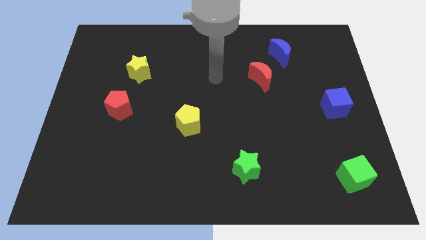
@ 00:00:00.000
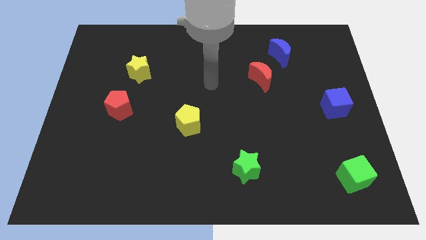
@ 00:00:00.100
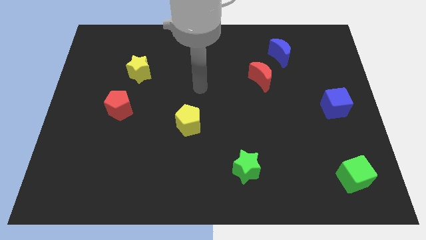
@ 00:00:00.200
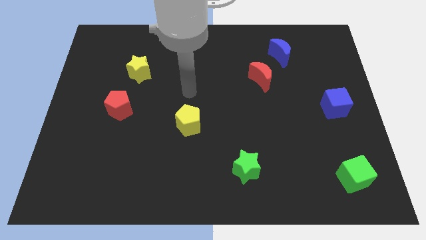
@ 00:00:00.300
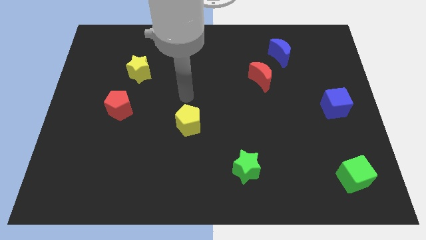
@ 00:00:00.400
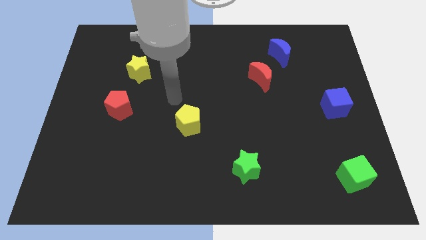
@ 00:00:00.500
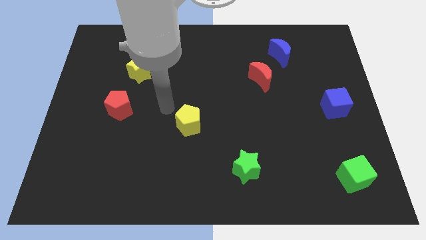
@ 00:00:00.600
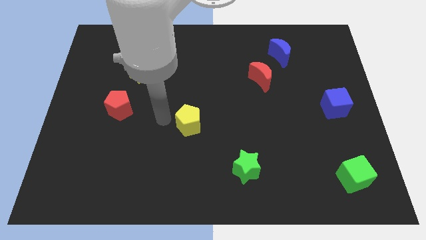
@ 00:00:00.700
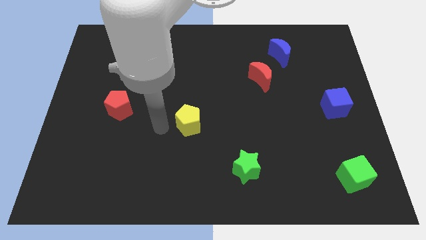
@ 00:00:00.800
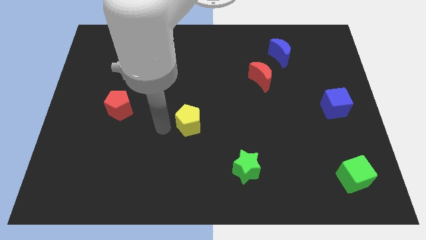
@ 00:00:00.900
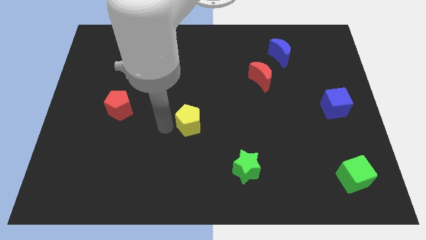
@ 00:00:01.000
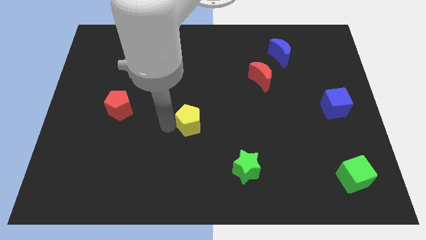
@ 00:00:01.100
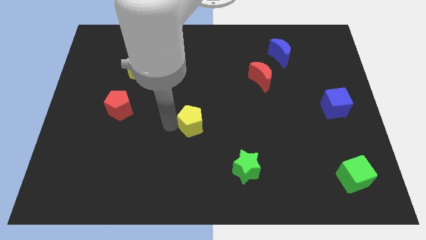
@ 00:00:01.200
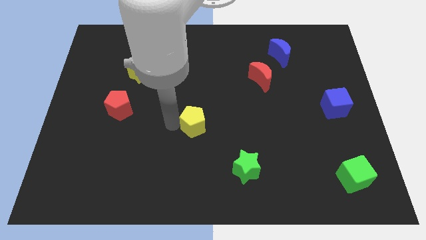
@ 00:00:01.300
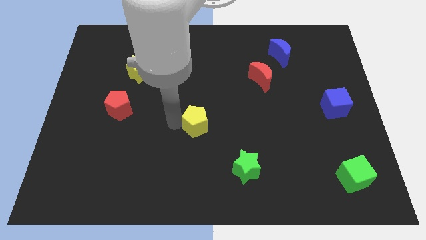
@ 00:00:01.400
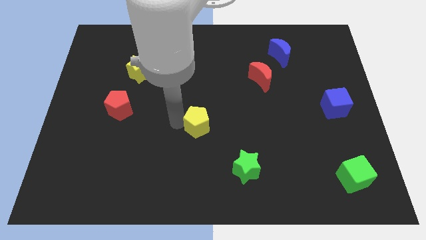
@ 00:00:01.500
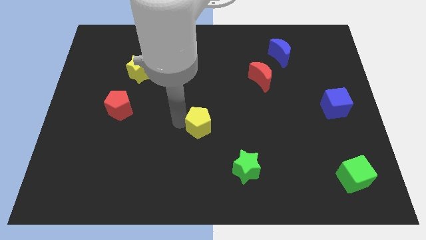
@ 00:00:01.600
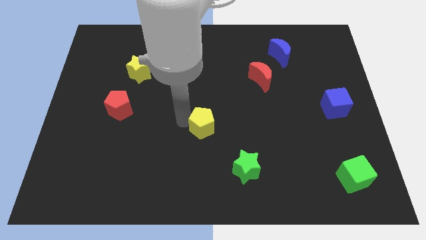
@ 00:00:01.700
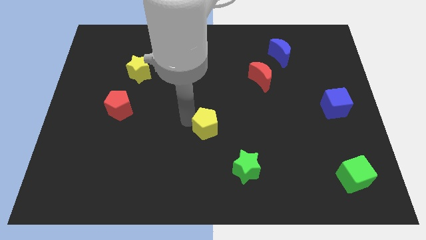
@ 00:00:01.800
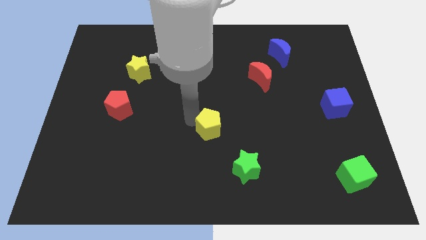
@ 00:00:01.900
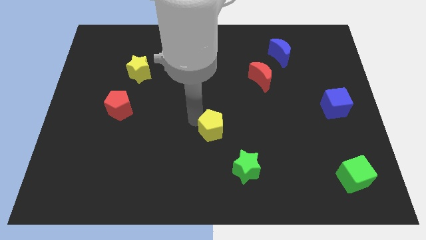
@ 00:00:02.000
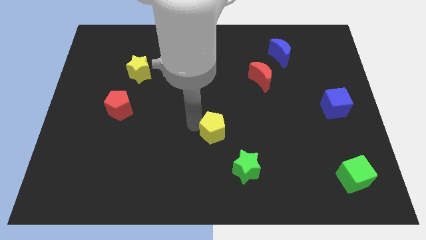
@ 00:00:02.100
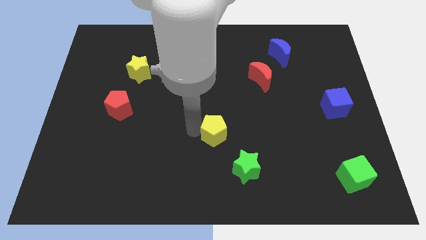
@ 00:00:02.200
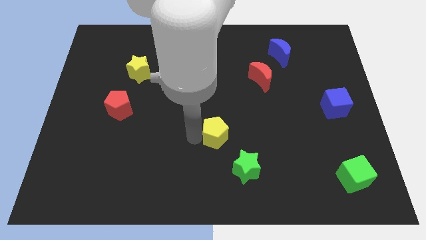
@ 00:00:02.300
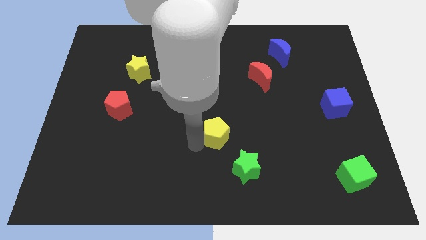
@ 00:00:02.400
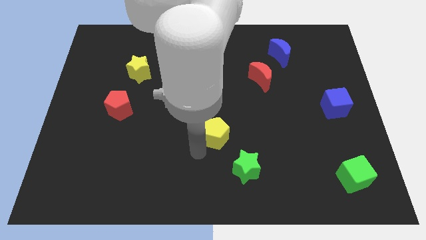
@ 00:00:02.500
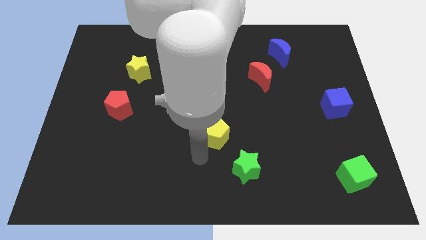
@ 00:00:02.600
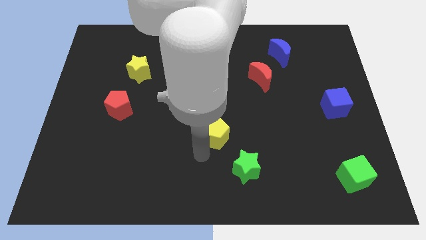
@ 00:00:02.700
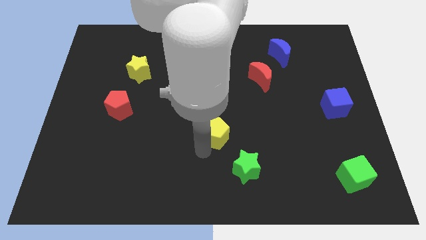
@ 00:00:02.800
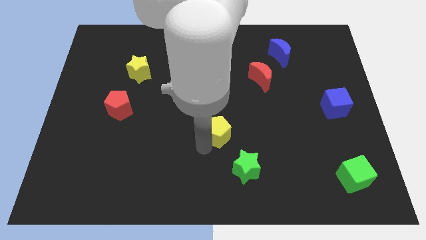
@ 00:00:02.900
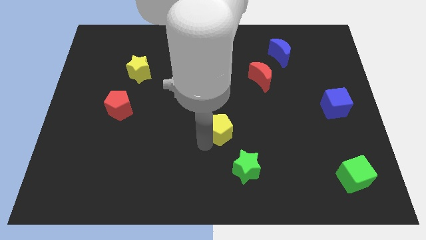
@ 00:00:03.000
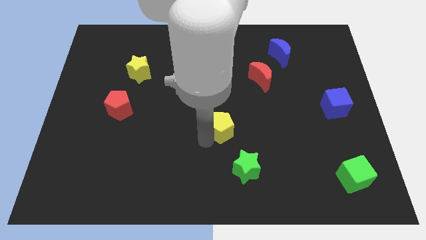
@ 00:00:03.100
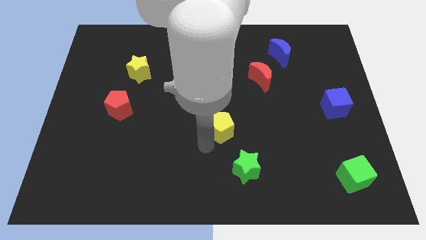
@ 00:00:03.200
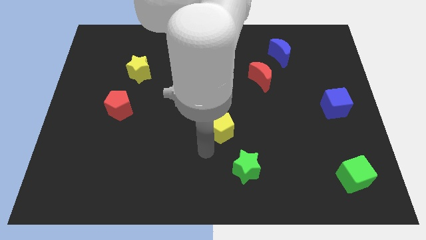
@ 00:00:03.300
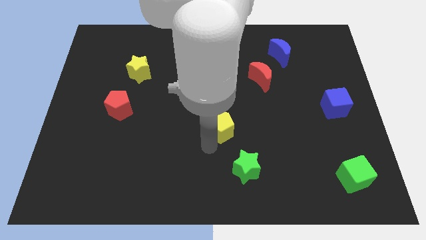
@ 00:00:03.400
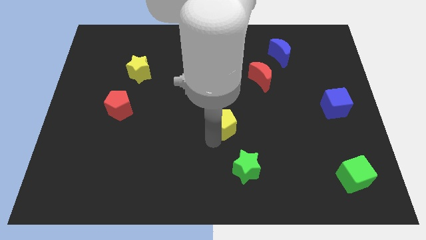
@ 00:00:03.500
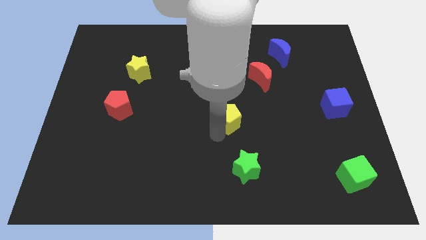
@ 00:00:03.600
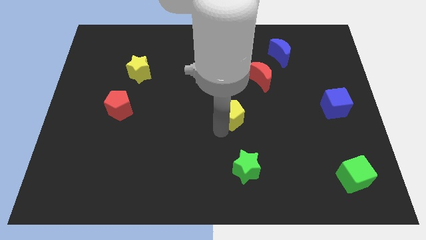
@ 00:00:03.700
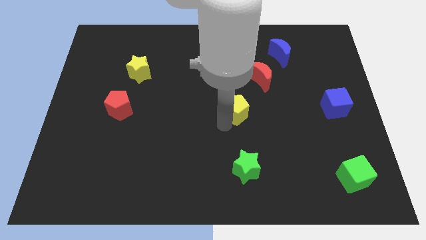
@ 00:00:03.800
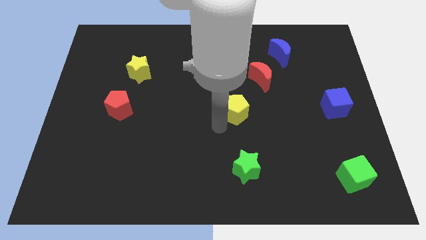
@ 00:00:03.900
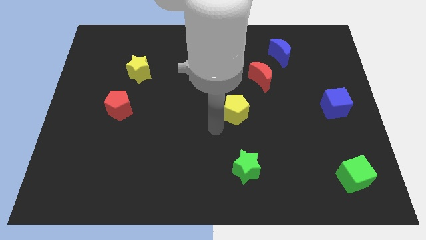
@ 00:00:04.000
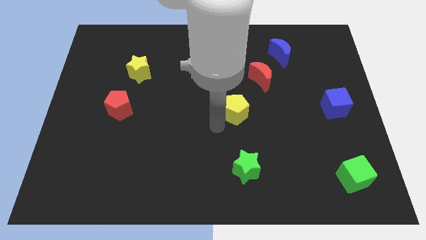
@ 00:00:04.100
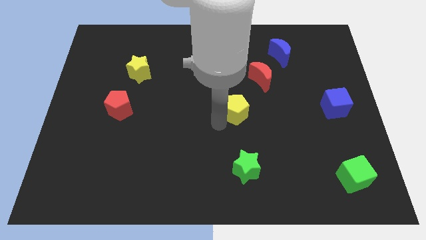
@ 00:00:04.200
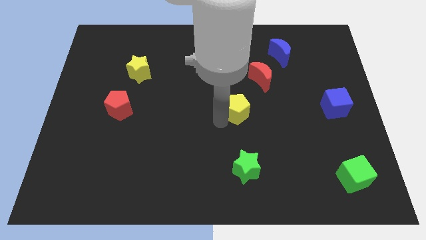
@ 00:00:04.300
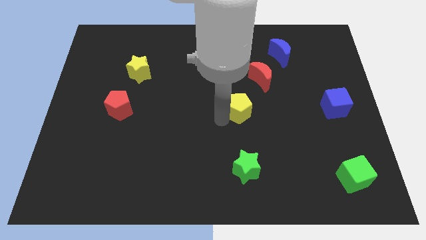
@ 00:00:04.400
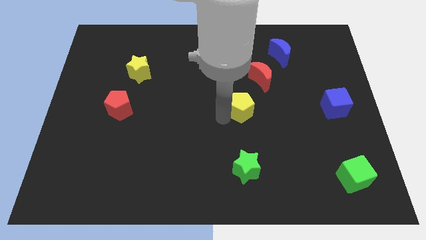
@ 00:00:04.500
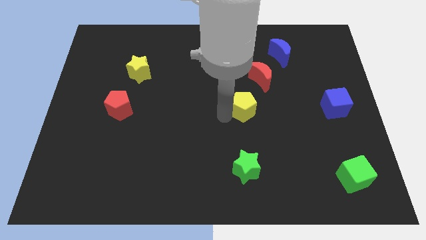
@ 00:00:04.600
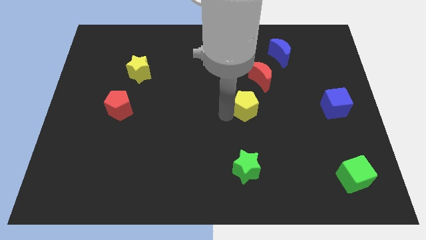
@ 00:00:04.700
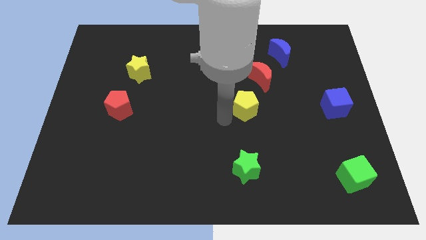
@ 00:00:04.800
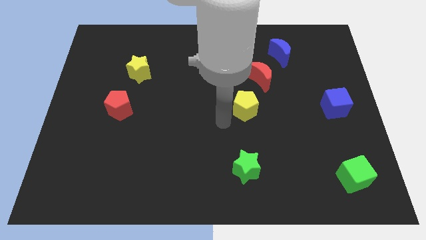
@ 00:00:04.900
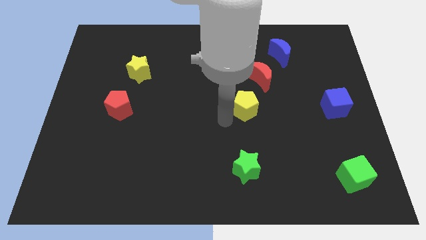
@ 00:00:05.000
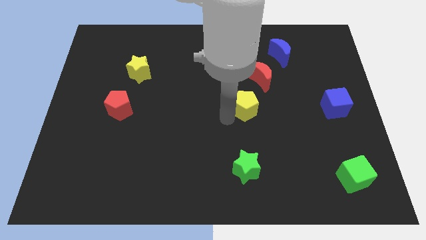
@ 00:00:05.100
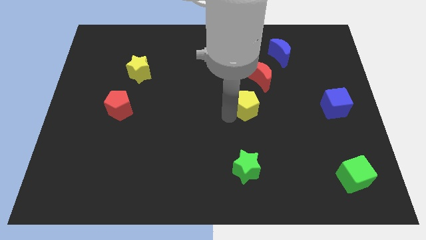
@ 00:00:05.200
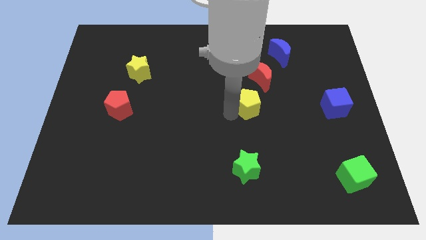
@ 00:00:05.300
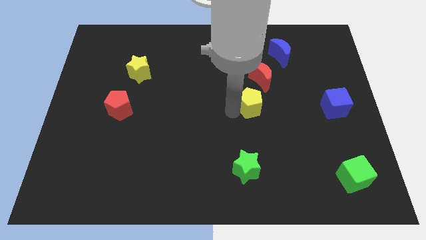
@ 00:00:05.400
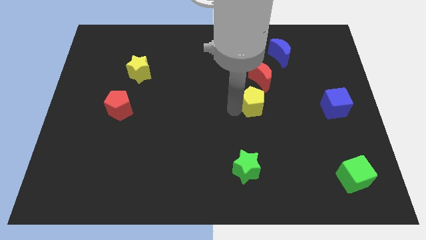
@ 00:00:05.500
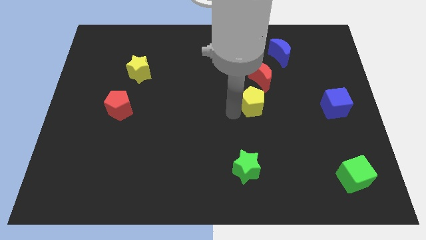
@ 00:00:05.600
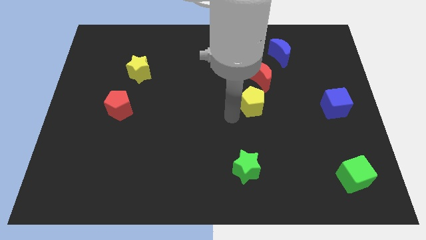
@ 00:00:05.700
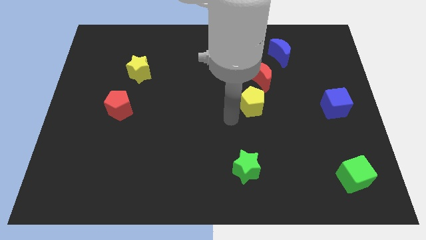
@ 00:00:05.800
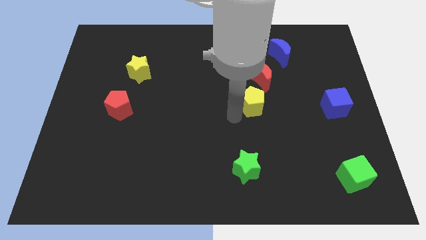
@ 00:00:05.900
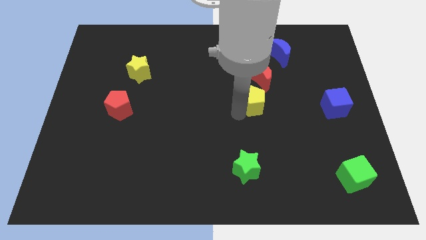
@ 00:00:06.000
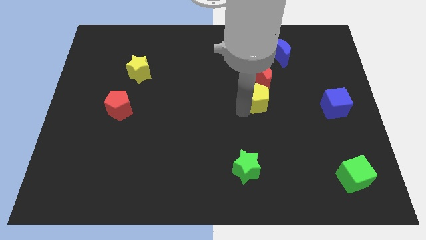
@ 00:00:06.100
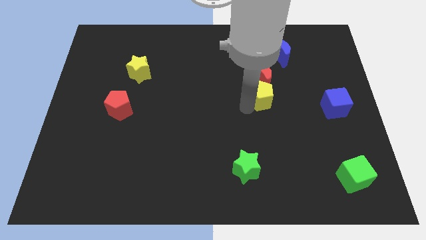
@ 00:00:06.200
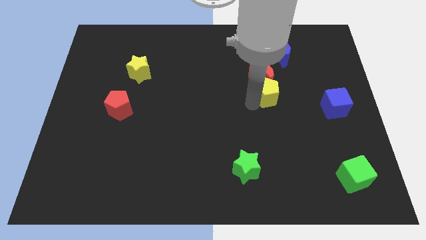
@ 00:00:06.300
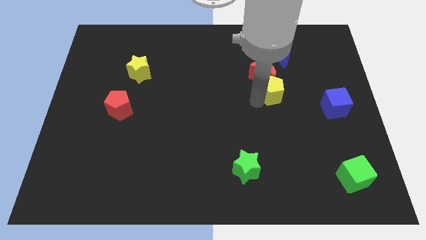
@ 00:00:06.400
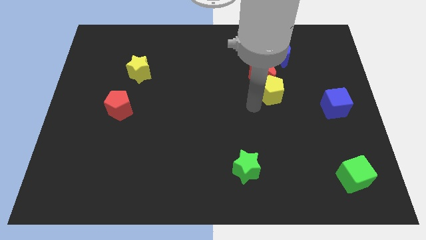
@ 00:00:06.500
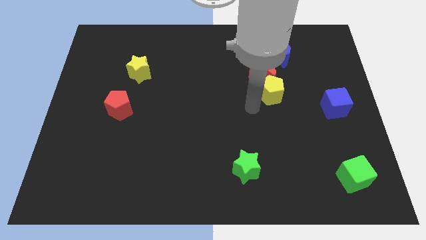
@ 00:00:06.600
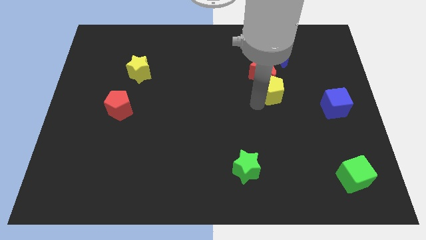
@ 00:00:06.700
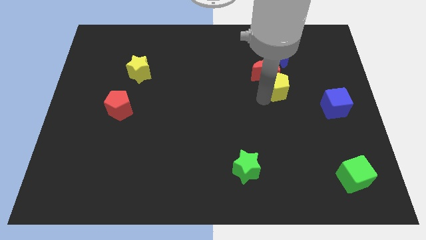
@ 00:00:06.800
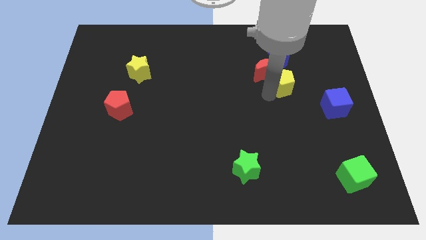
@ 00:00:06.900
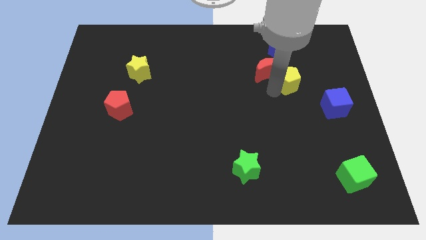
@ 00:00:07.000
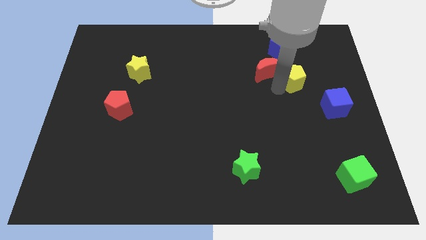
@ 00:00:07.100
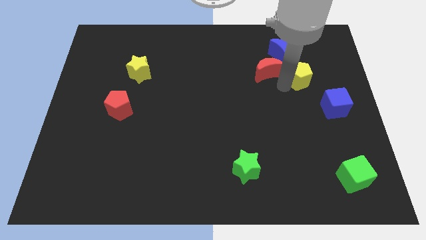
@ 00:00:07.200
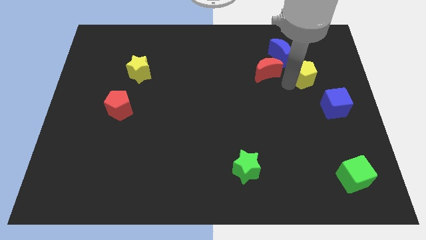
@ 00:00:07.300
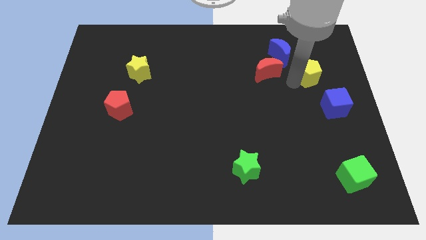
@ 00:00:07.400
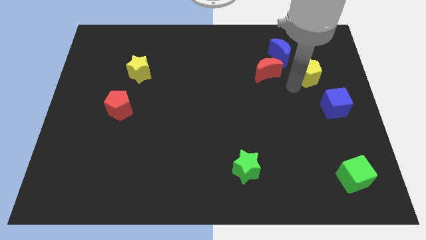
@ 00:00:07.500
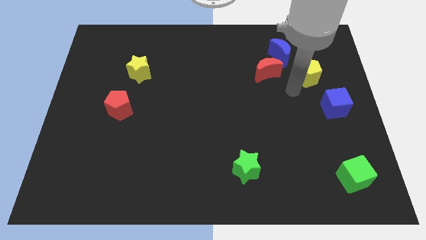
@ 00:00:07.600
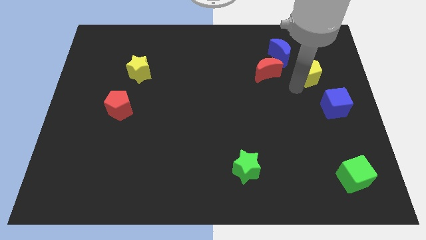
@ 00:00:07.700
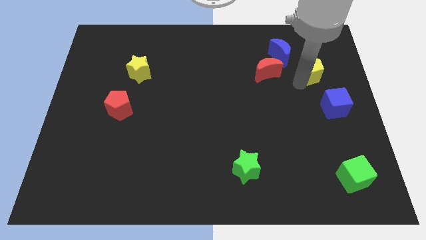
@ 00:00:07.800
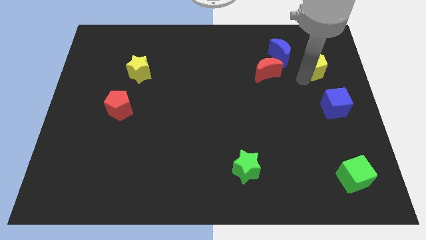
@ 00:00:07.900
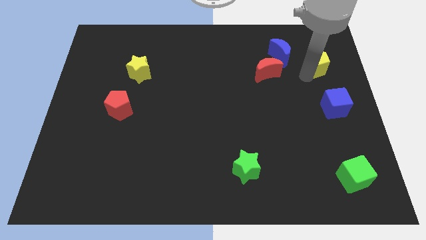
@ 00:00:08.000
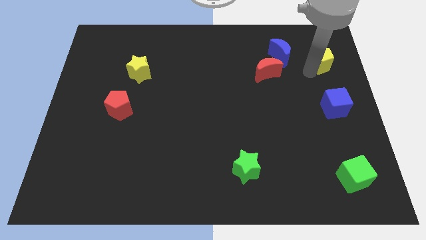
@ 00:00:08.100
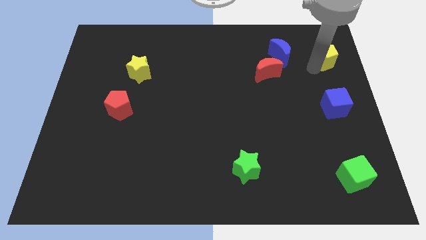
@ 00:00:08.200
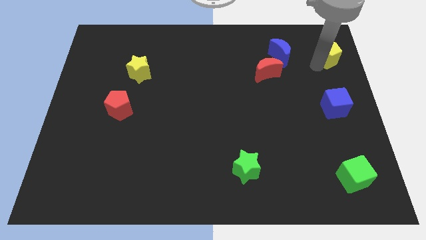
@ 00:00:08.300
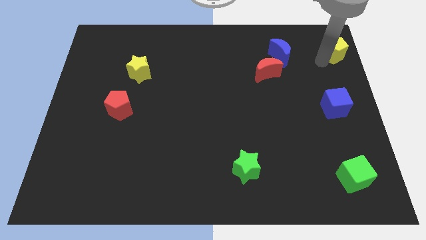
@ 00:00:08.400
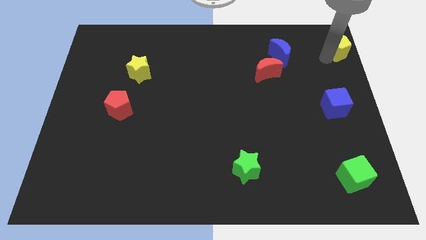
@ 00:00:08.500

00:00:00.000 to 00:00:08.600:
slide the yellow pentagon to the top right
